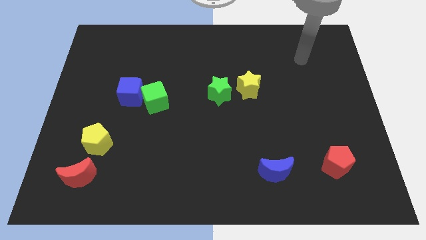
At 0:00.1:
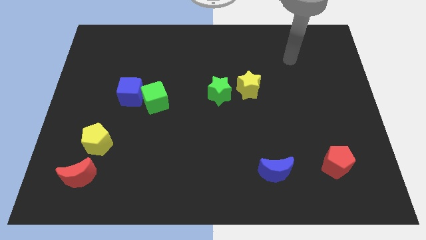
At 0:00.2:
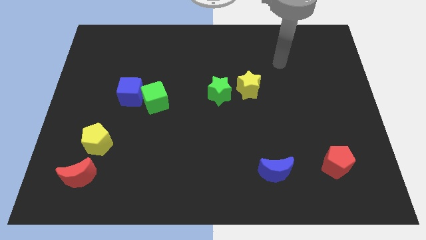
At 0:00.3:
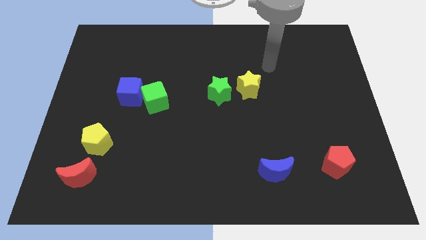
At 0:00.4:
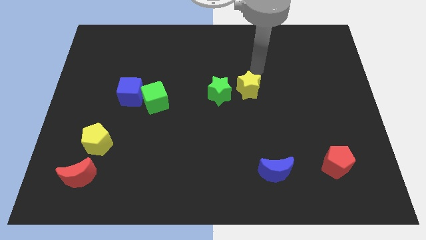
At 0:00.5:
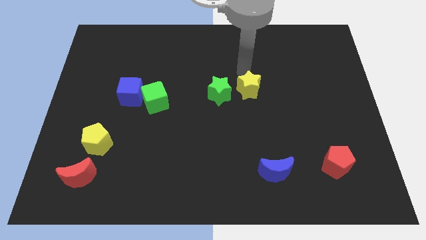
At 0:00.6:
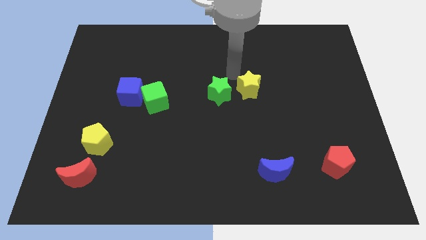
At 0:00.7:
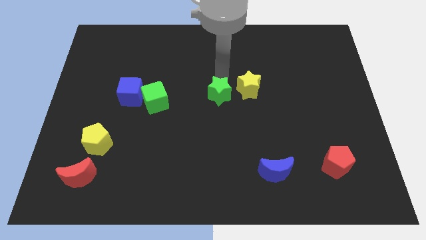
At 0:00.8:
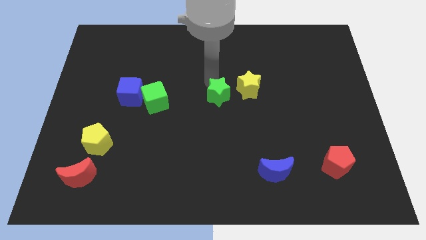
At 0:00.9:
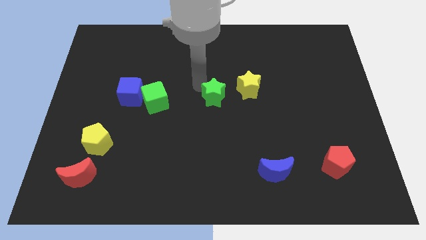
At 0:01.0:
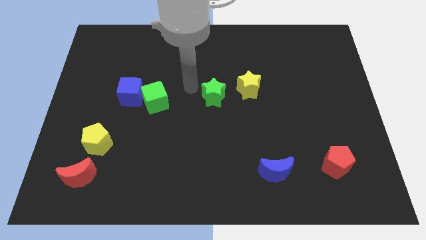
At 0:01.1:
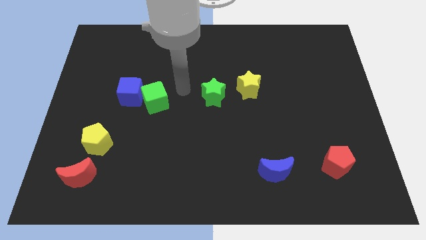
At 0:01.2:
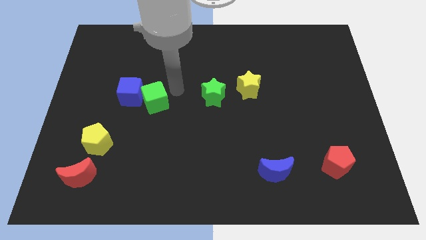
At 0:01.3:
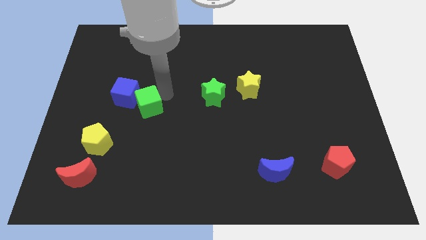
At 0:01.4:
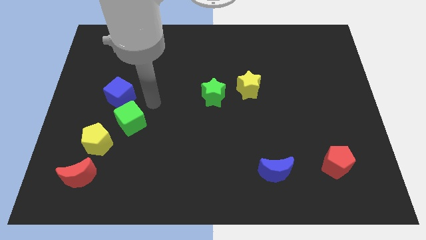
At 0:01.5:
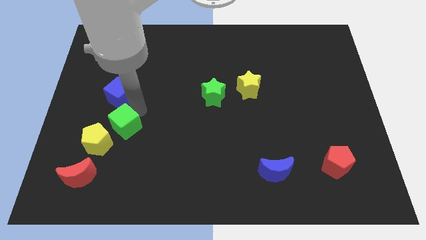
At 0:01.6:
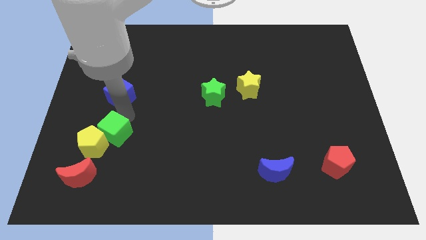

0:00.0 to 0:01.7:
pull the blue cube apart from the green cube

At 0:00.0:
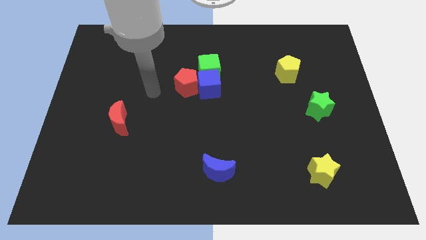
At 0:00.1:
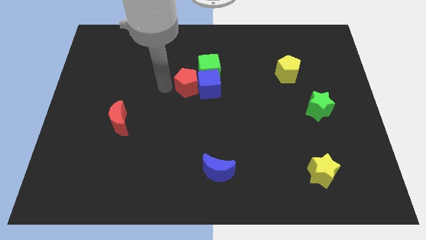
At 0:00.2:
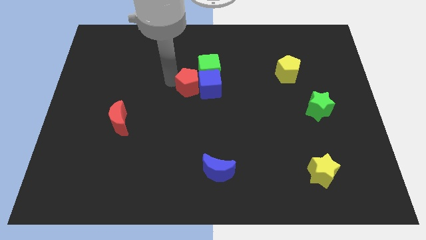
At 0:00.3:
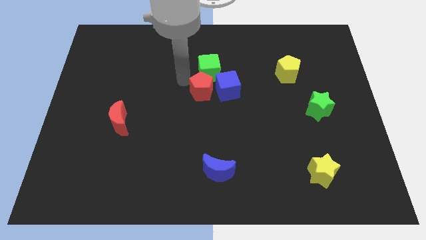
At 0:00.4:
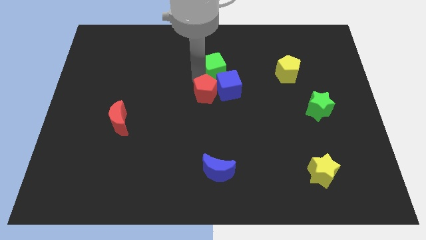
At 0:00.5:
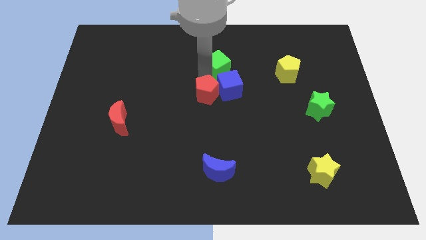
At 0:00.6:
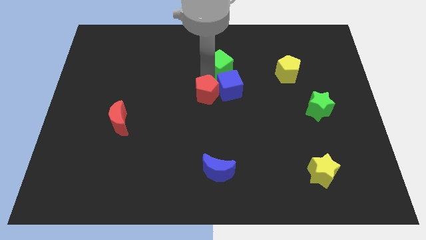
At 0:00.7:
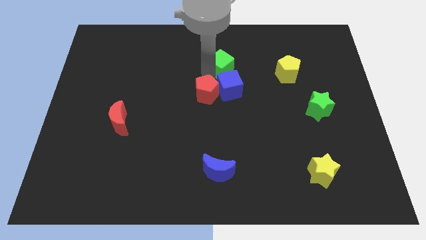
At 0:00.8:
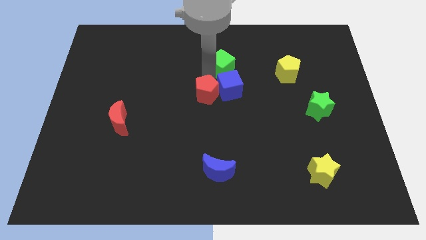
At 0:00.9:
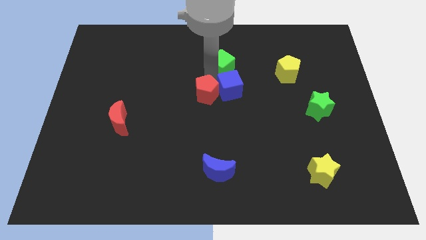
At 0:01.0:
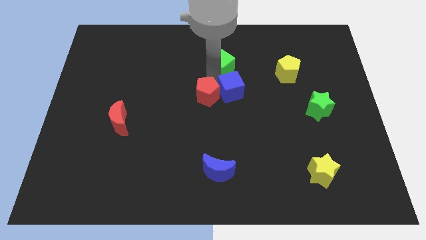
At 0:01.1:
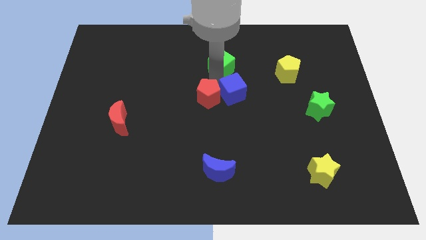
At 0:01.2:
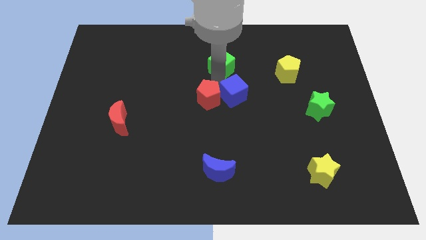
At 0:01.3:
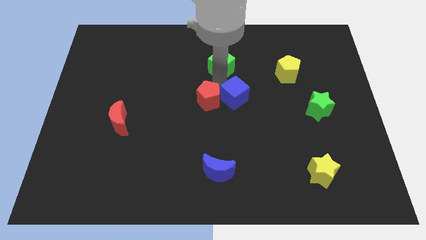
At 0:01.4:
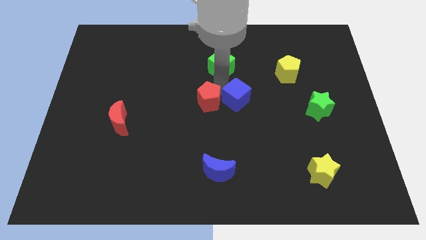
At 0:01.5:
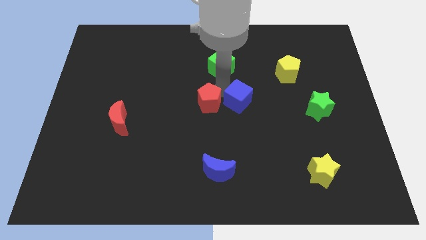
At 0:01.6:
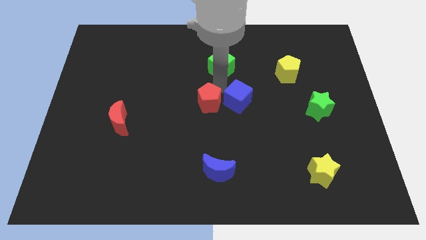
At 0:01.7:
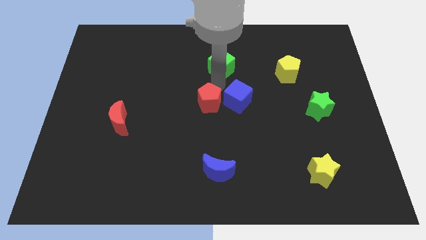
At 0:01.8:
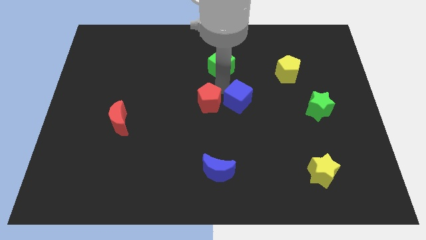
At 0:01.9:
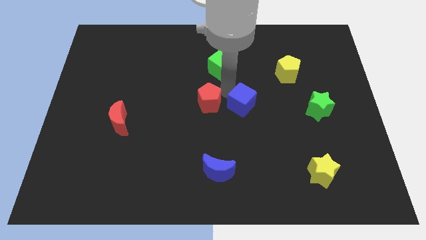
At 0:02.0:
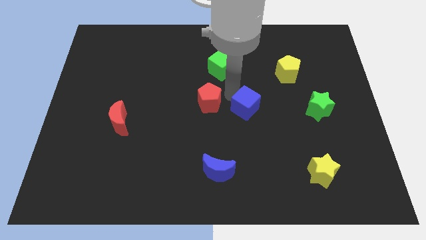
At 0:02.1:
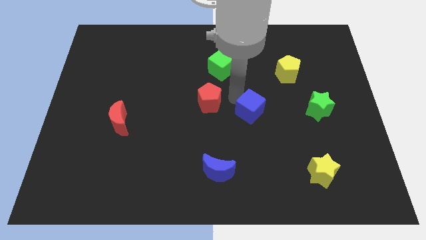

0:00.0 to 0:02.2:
move the blue cube away from the red pentagon and green cube

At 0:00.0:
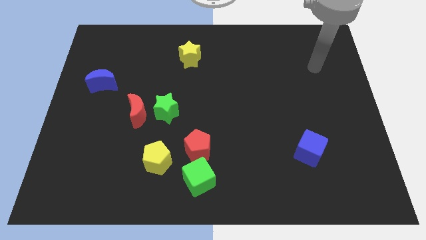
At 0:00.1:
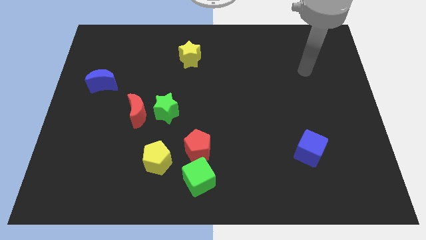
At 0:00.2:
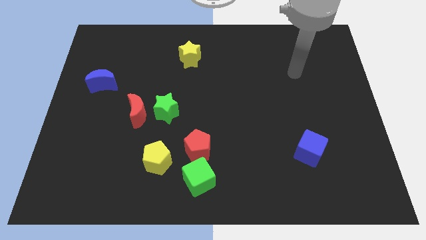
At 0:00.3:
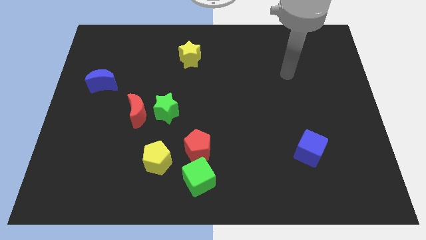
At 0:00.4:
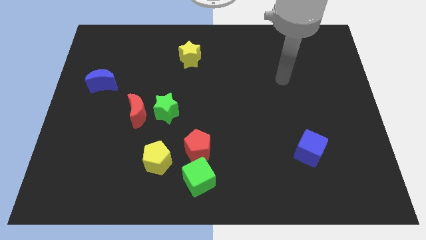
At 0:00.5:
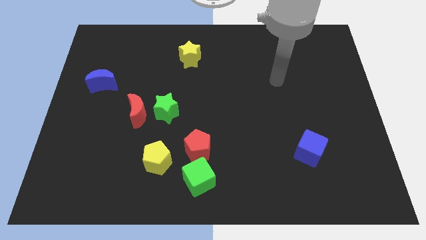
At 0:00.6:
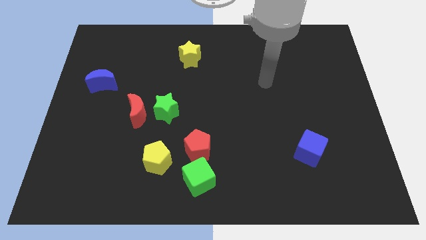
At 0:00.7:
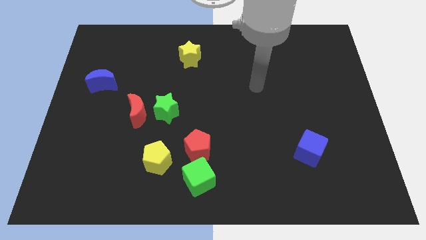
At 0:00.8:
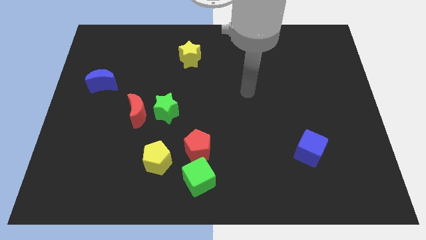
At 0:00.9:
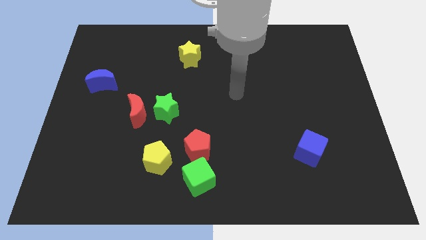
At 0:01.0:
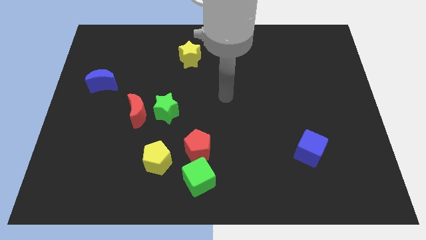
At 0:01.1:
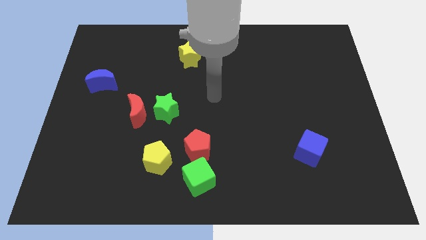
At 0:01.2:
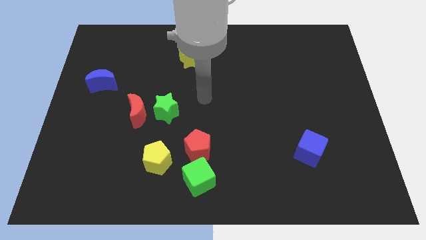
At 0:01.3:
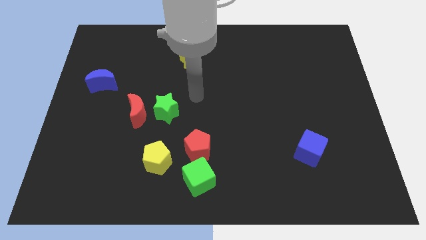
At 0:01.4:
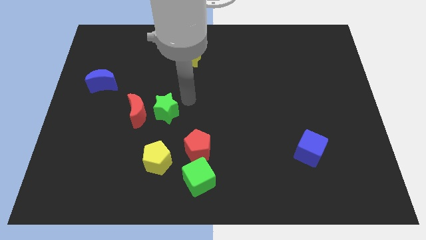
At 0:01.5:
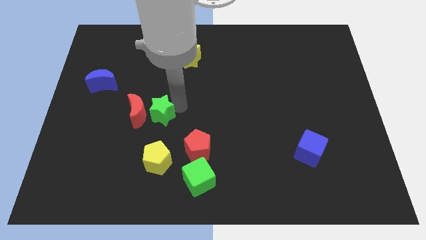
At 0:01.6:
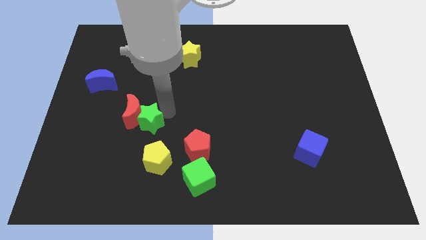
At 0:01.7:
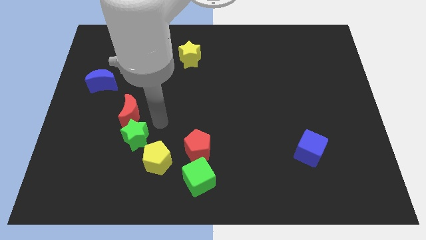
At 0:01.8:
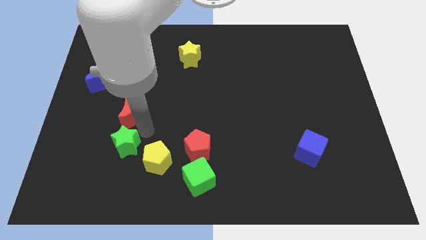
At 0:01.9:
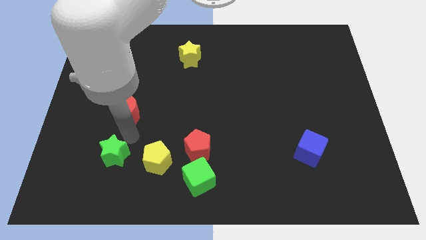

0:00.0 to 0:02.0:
separate the red moon from the green star

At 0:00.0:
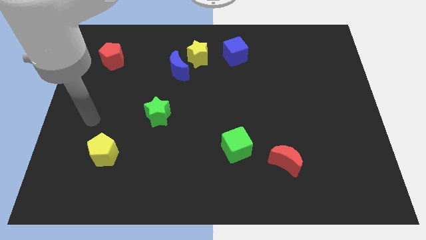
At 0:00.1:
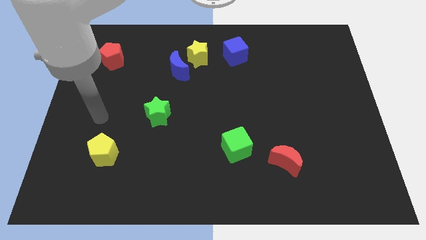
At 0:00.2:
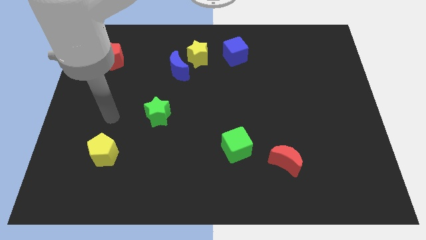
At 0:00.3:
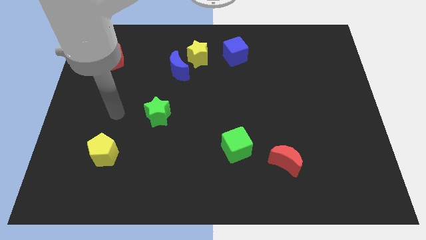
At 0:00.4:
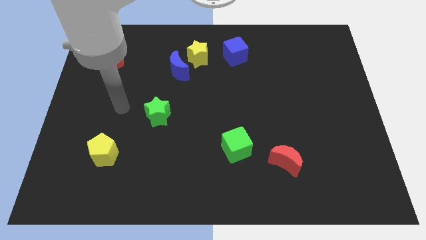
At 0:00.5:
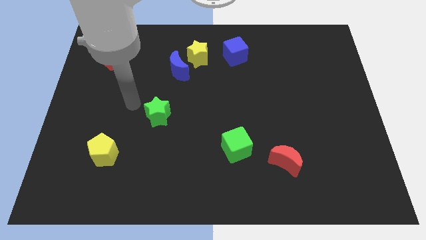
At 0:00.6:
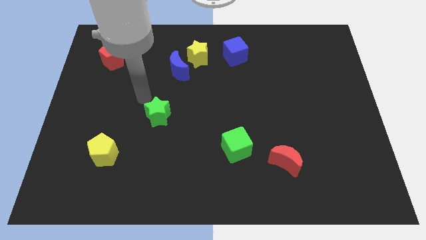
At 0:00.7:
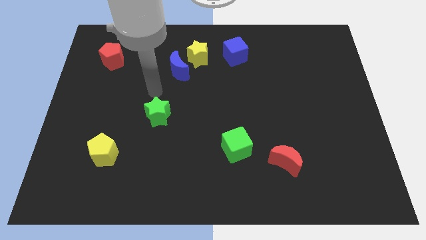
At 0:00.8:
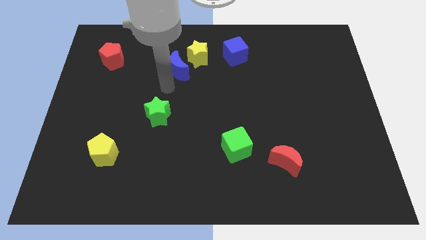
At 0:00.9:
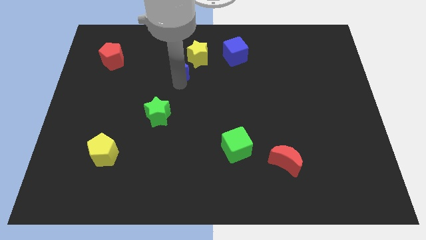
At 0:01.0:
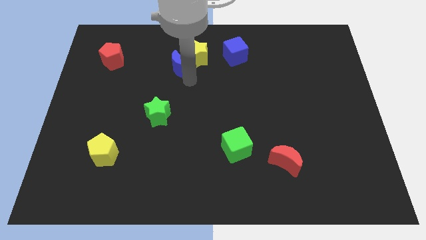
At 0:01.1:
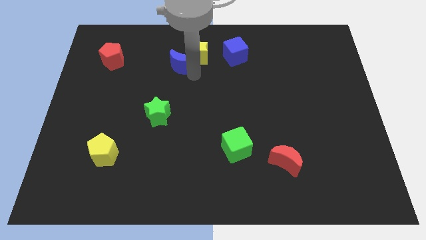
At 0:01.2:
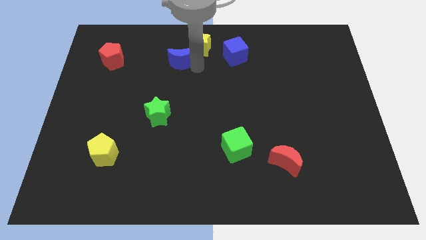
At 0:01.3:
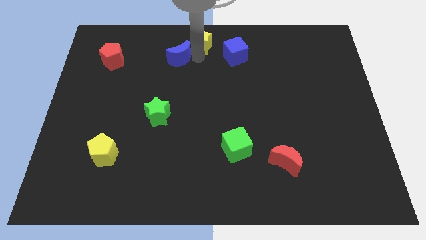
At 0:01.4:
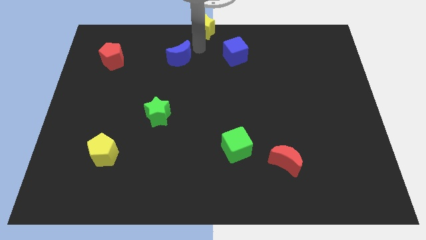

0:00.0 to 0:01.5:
separate the blue moon from the yellow star

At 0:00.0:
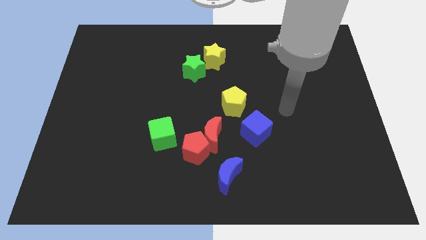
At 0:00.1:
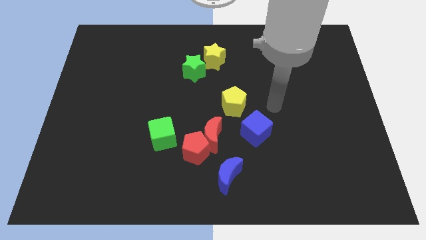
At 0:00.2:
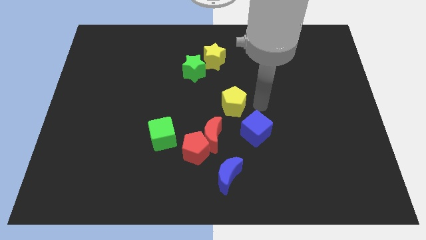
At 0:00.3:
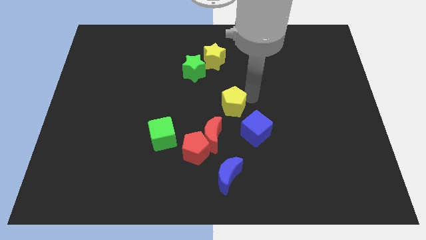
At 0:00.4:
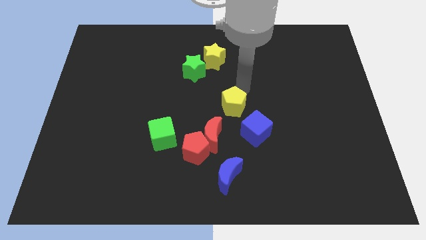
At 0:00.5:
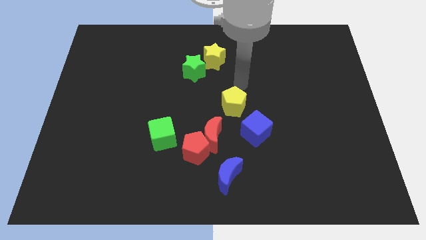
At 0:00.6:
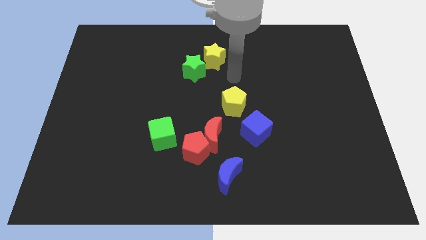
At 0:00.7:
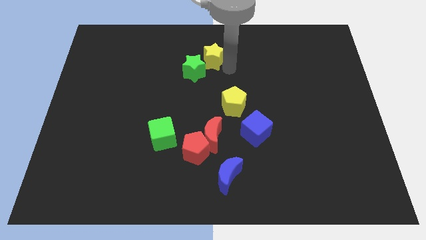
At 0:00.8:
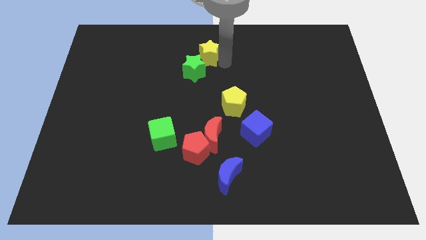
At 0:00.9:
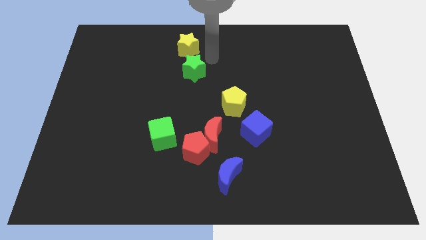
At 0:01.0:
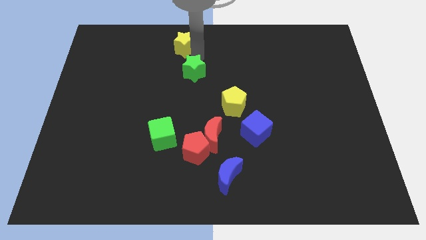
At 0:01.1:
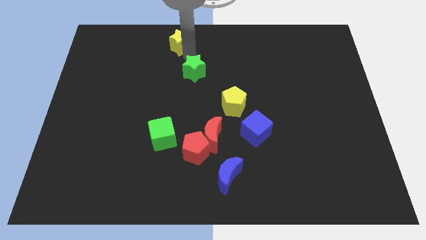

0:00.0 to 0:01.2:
separate the green star from the yellow star

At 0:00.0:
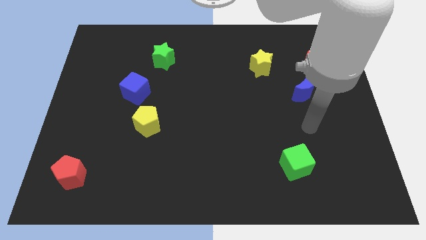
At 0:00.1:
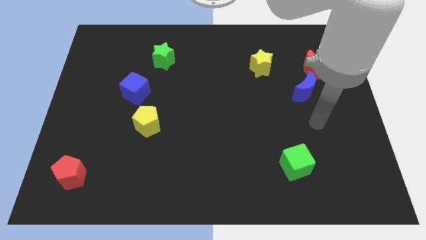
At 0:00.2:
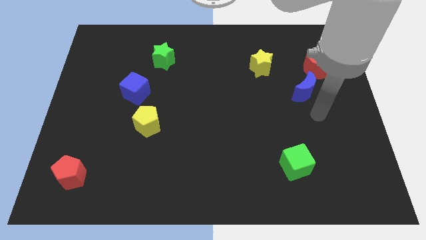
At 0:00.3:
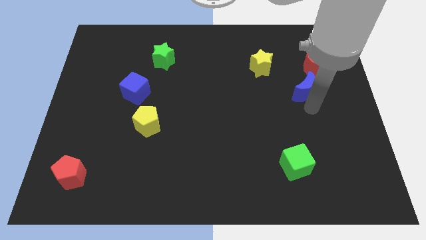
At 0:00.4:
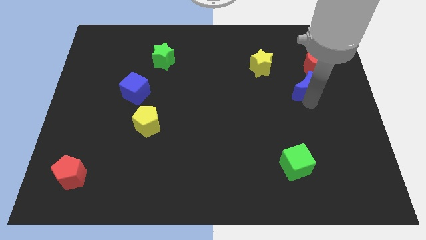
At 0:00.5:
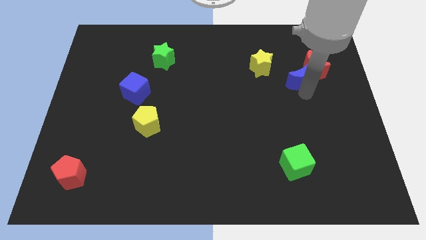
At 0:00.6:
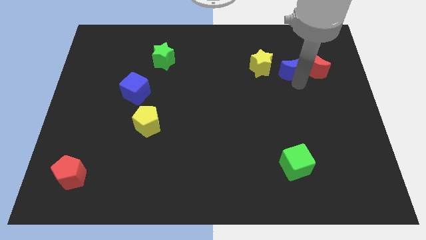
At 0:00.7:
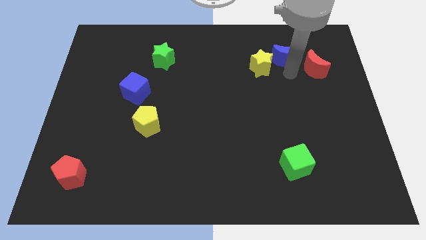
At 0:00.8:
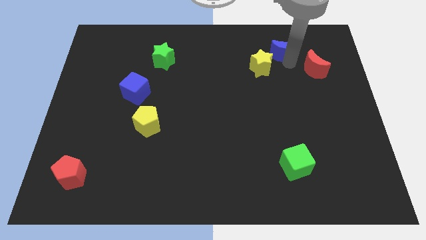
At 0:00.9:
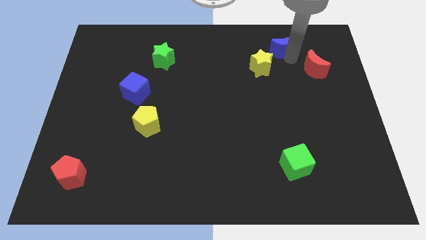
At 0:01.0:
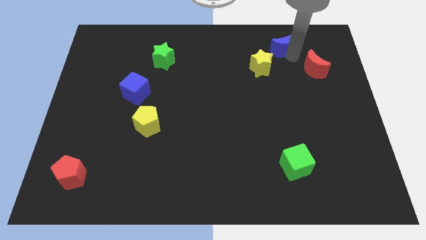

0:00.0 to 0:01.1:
move the red moon away from the blue moon
